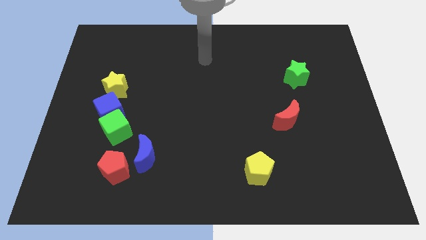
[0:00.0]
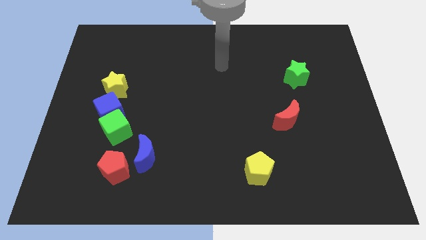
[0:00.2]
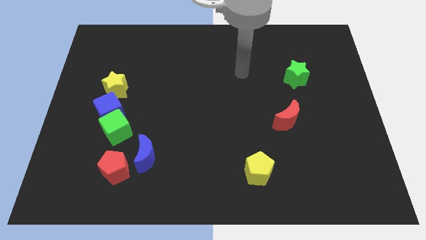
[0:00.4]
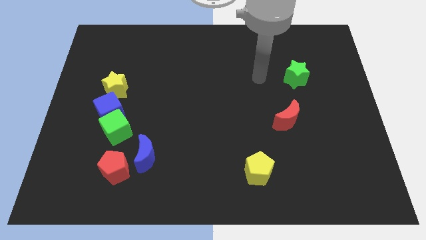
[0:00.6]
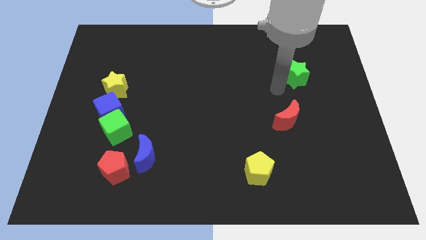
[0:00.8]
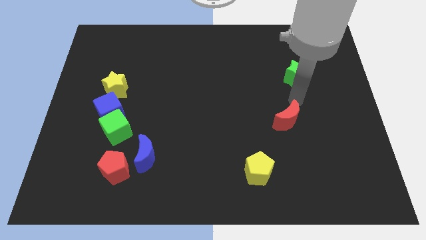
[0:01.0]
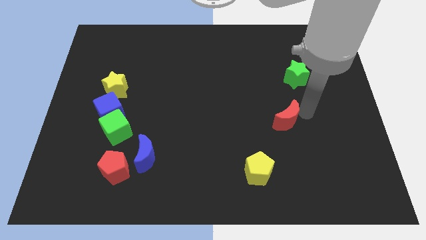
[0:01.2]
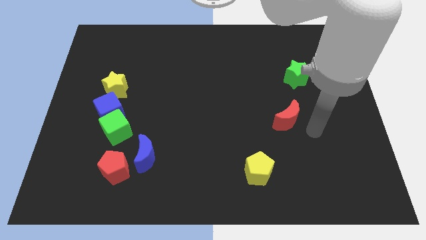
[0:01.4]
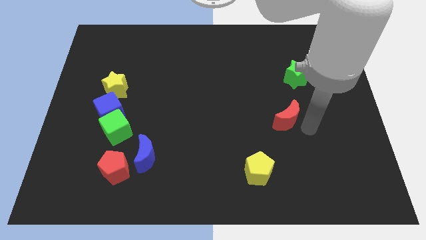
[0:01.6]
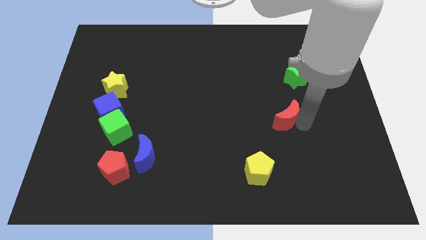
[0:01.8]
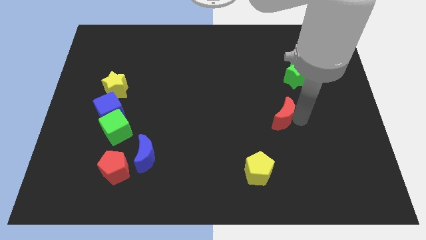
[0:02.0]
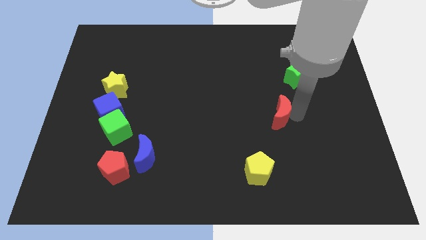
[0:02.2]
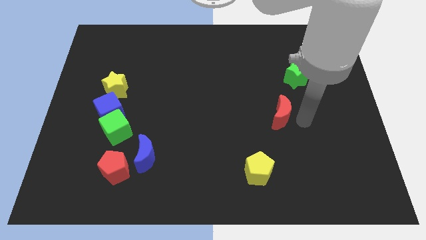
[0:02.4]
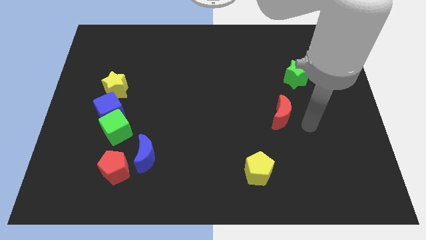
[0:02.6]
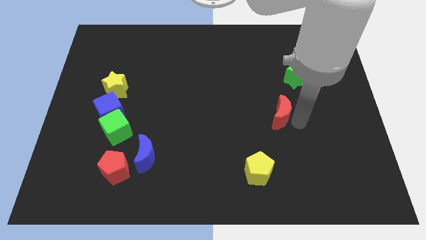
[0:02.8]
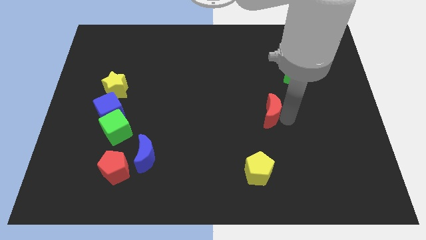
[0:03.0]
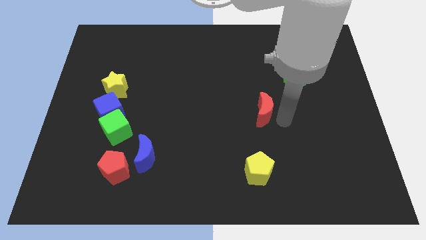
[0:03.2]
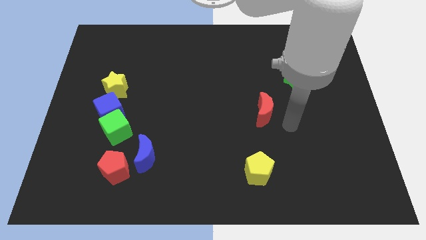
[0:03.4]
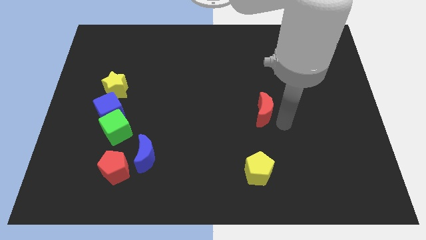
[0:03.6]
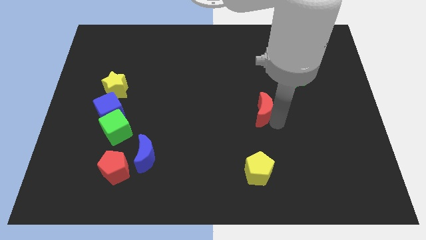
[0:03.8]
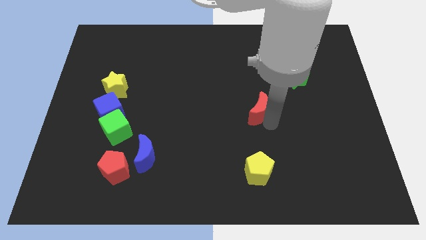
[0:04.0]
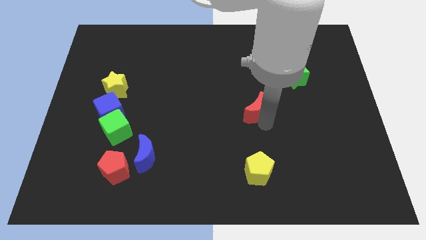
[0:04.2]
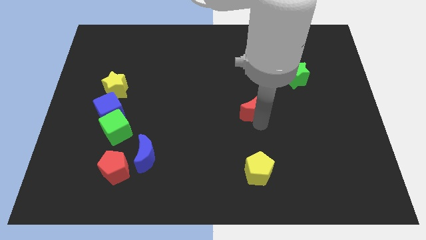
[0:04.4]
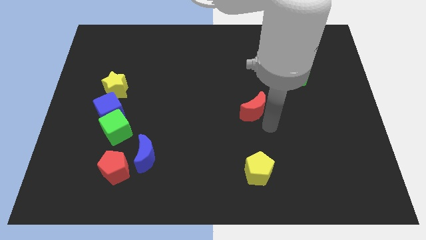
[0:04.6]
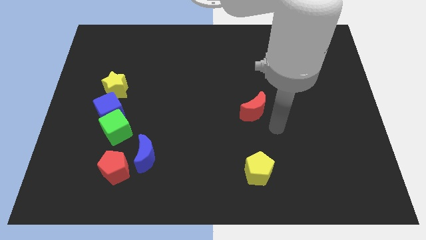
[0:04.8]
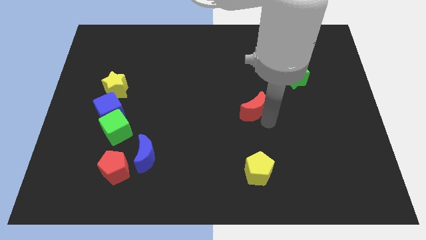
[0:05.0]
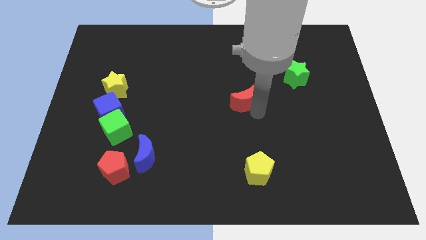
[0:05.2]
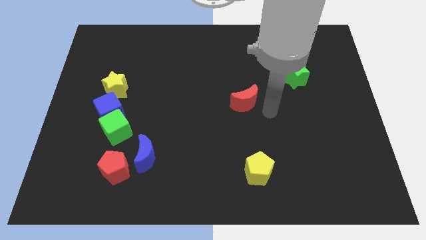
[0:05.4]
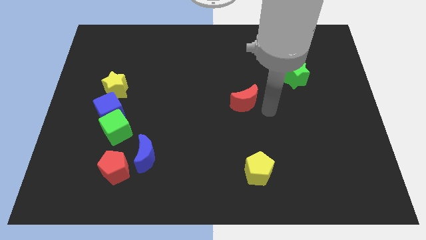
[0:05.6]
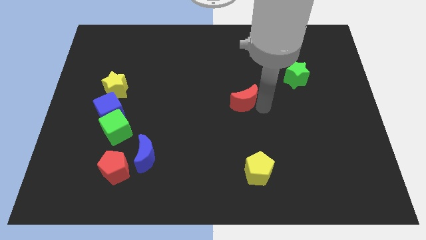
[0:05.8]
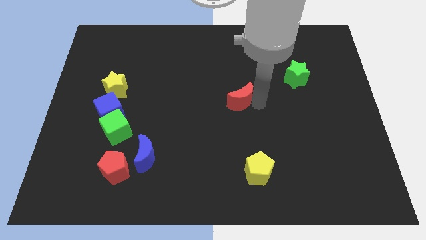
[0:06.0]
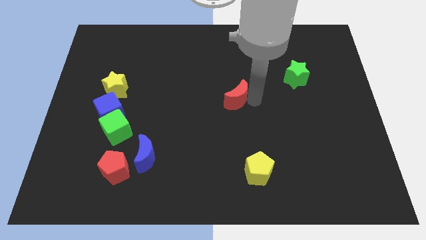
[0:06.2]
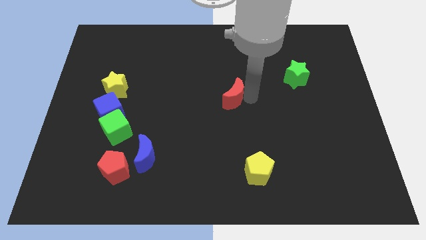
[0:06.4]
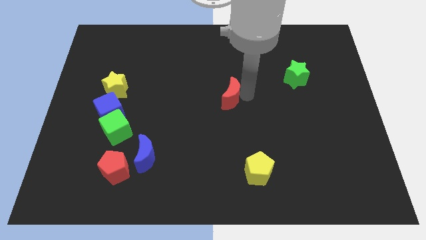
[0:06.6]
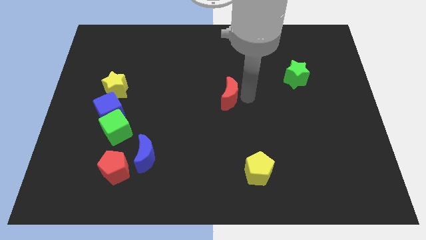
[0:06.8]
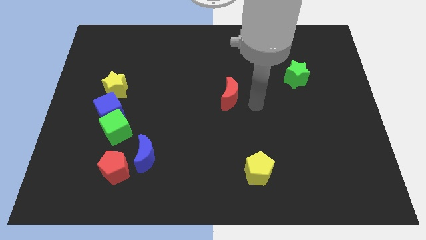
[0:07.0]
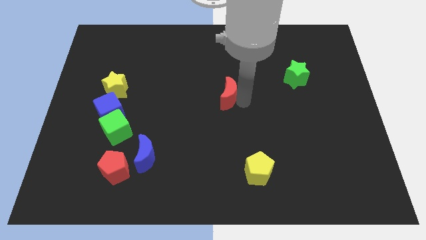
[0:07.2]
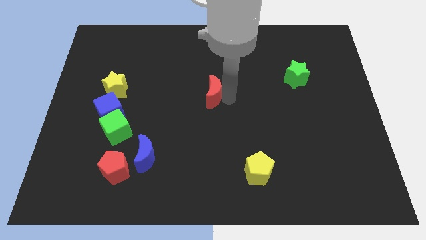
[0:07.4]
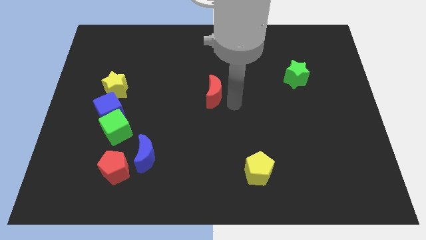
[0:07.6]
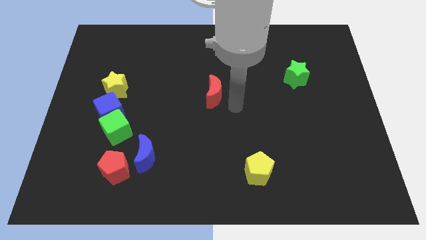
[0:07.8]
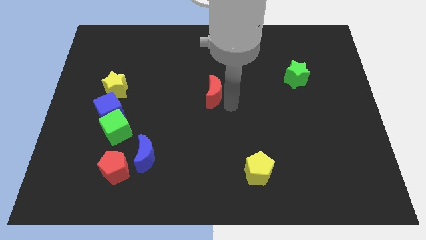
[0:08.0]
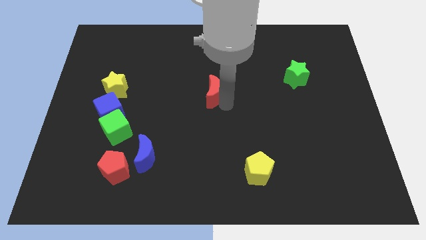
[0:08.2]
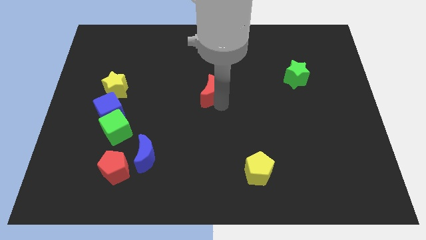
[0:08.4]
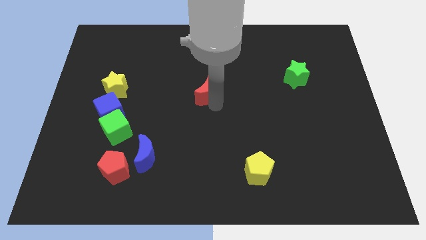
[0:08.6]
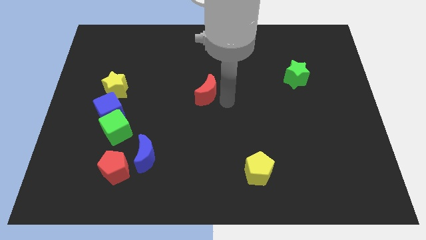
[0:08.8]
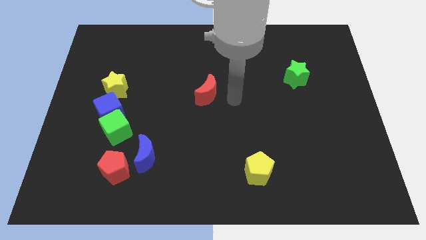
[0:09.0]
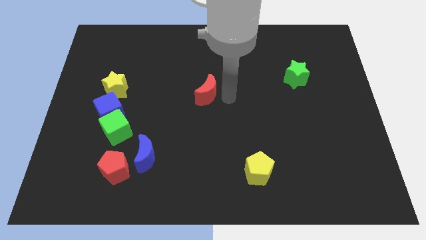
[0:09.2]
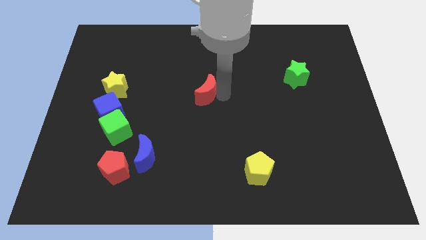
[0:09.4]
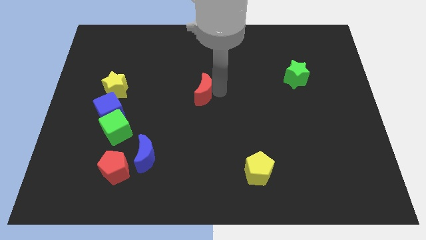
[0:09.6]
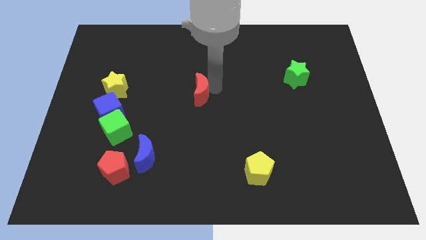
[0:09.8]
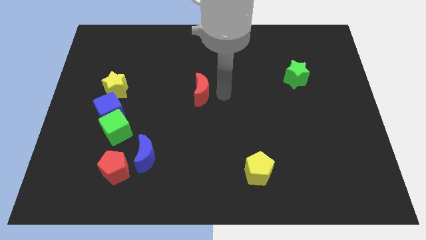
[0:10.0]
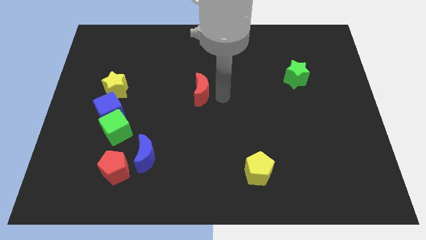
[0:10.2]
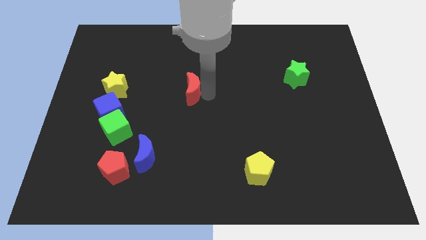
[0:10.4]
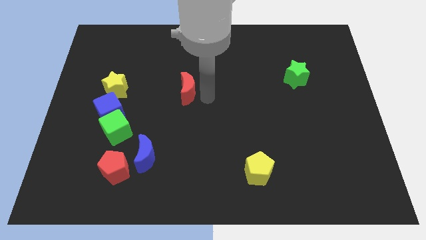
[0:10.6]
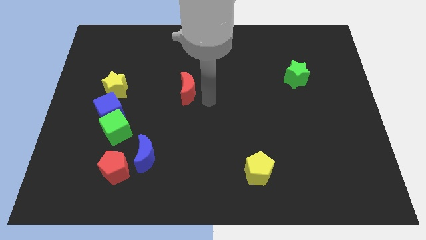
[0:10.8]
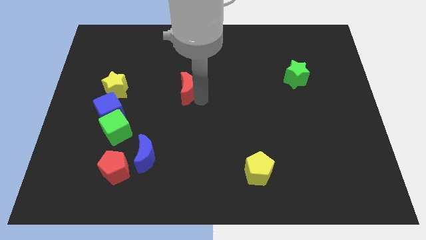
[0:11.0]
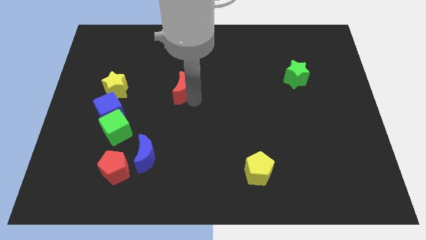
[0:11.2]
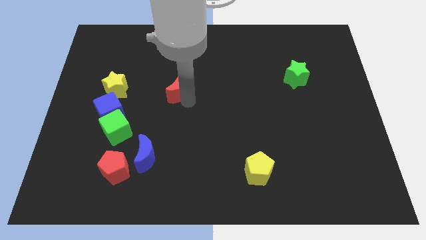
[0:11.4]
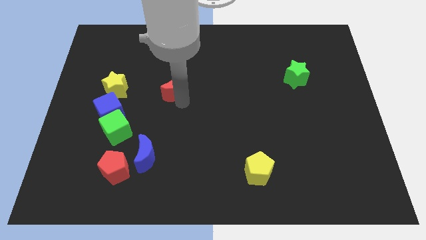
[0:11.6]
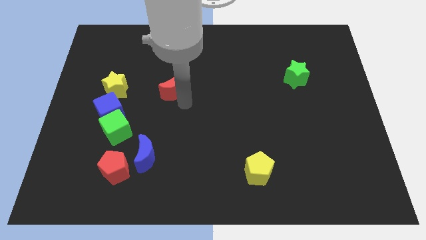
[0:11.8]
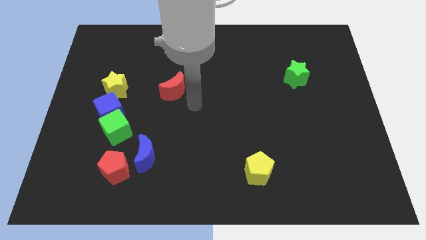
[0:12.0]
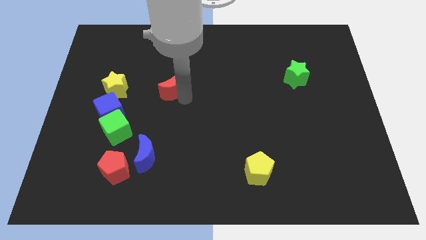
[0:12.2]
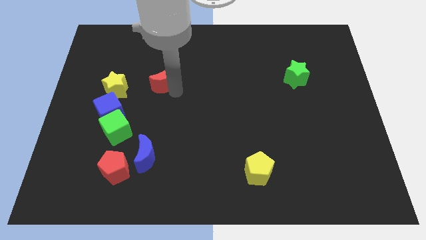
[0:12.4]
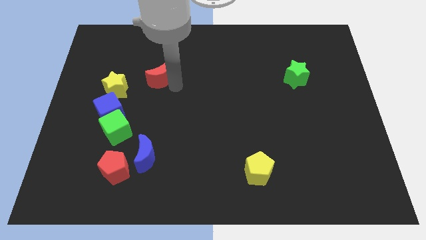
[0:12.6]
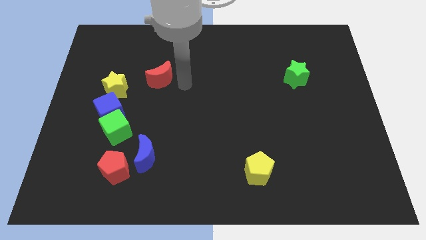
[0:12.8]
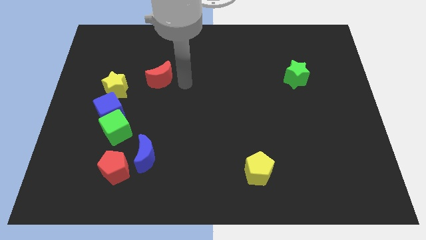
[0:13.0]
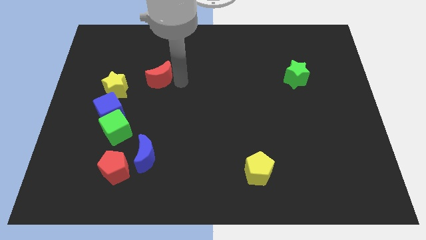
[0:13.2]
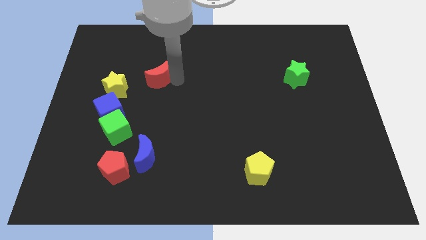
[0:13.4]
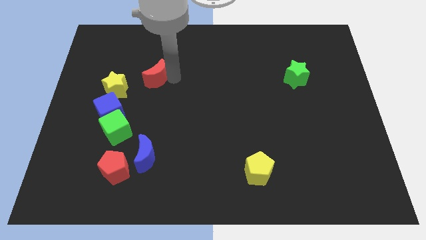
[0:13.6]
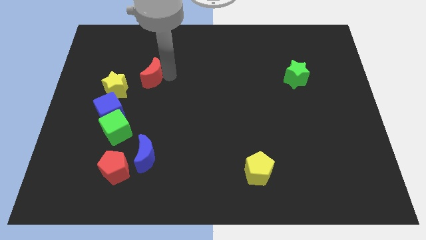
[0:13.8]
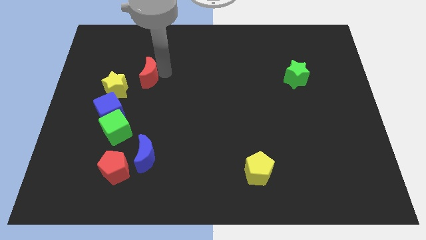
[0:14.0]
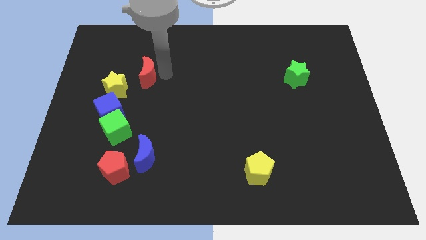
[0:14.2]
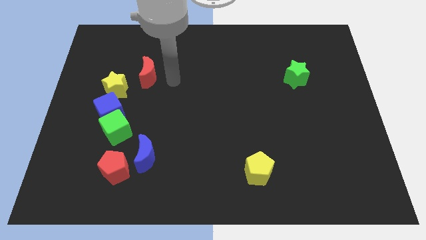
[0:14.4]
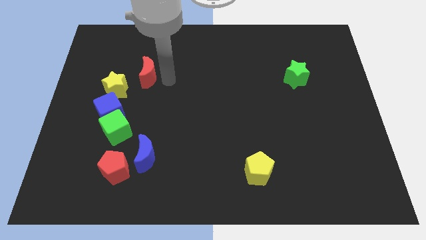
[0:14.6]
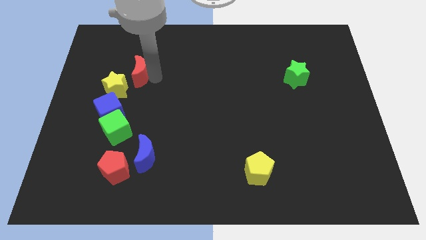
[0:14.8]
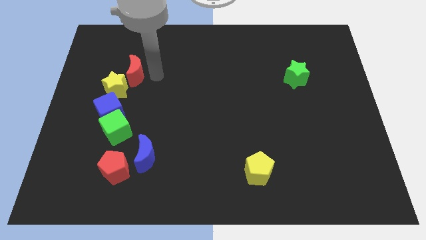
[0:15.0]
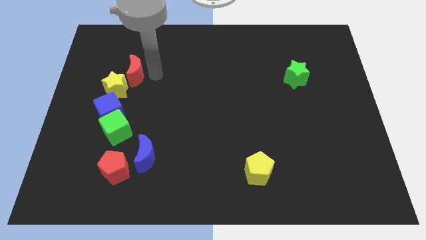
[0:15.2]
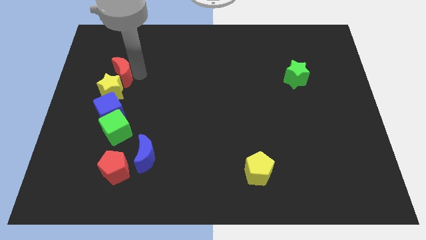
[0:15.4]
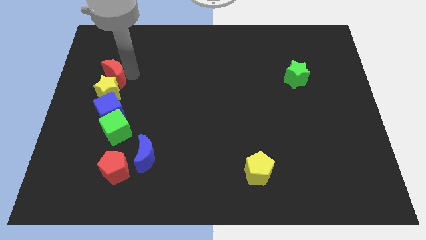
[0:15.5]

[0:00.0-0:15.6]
put the red moon diagonally up and to the left of the yellow star
